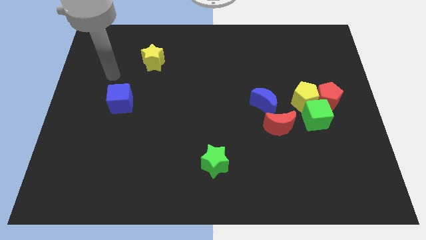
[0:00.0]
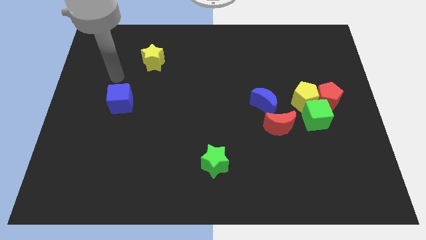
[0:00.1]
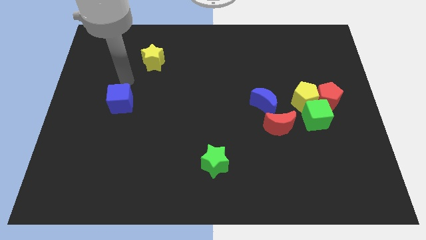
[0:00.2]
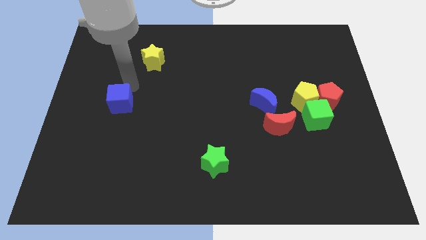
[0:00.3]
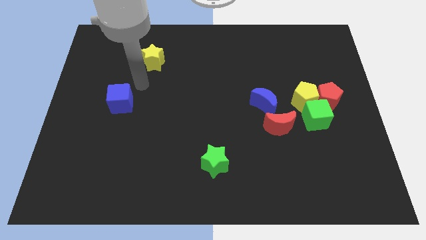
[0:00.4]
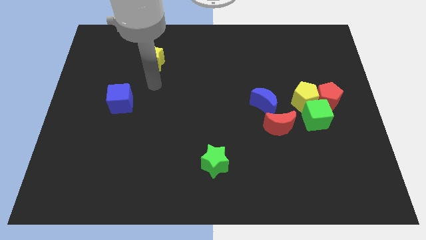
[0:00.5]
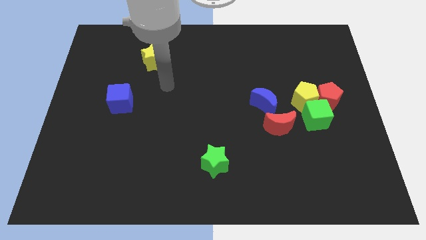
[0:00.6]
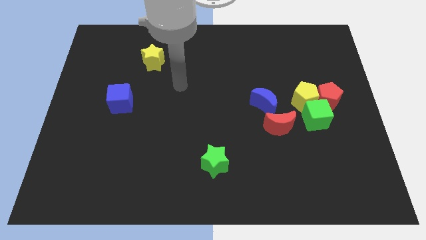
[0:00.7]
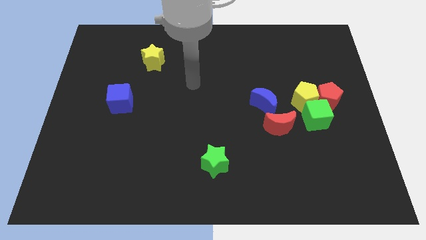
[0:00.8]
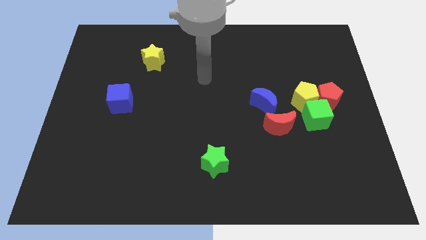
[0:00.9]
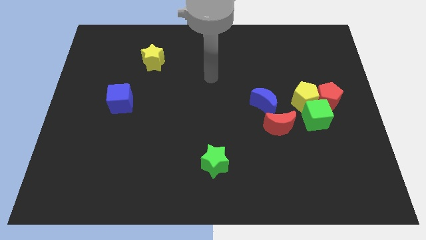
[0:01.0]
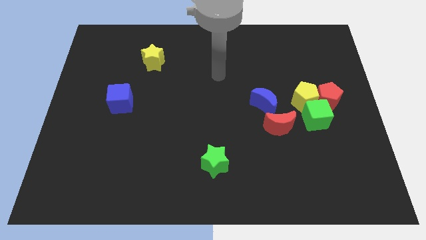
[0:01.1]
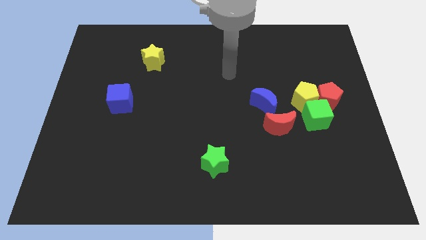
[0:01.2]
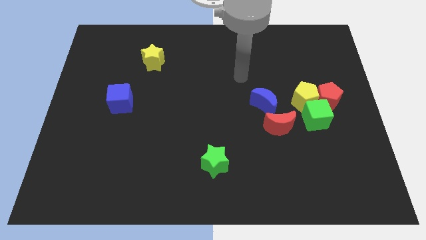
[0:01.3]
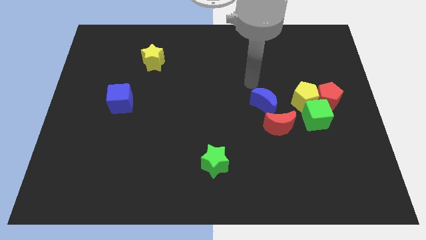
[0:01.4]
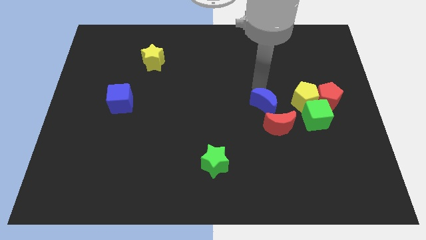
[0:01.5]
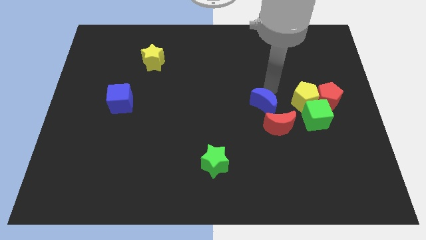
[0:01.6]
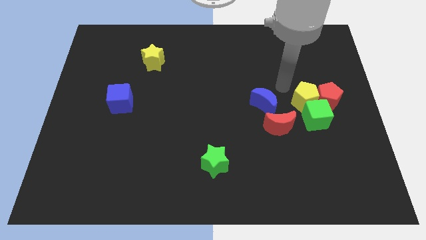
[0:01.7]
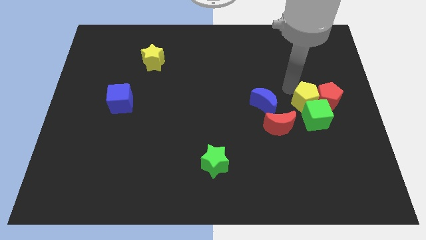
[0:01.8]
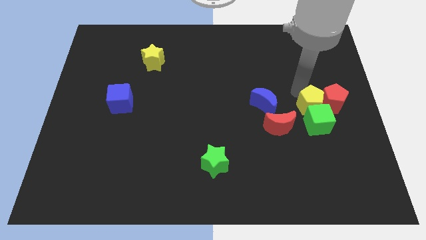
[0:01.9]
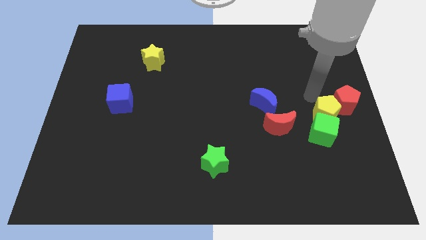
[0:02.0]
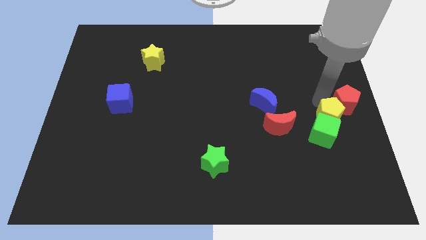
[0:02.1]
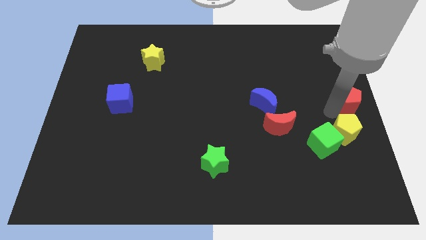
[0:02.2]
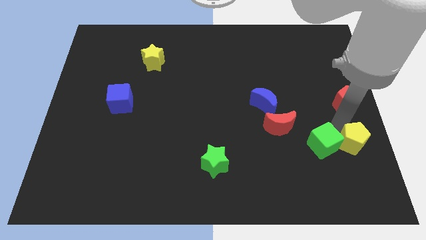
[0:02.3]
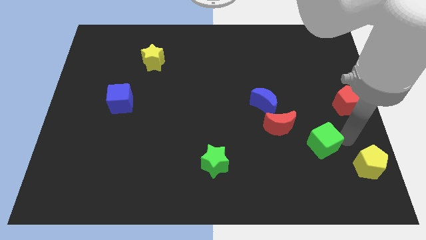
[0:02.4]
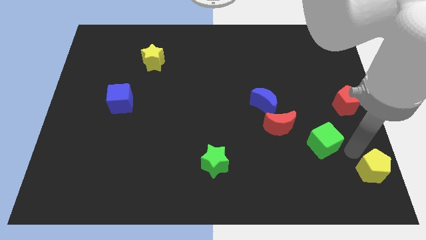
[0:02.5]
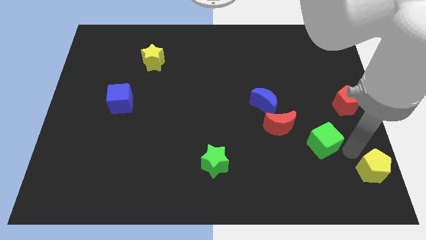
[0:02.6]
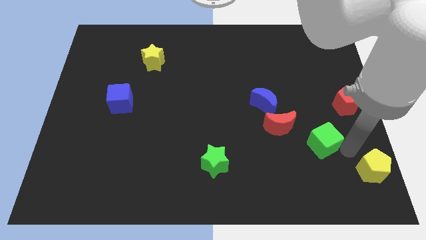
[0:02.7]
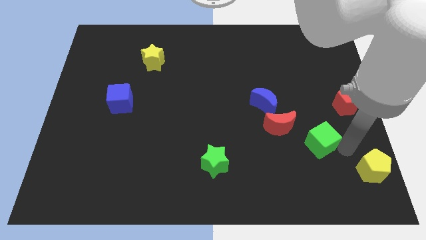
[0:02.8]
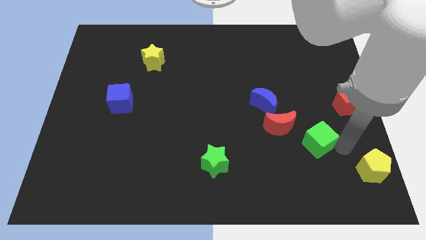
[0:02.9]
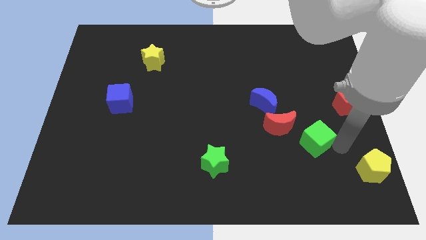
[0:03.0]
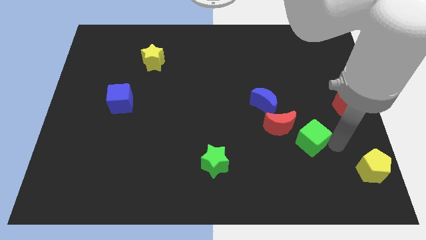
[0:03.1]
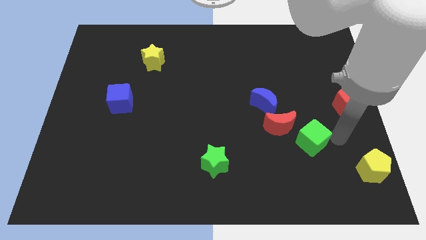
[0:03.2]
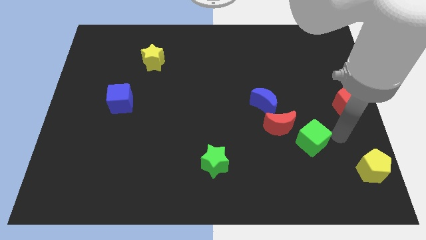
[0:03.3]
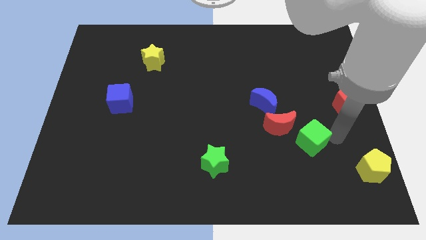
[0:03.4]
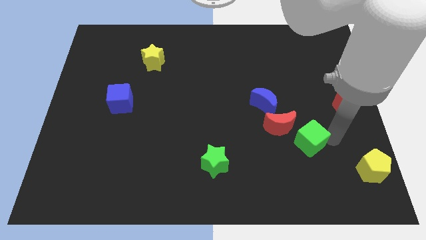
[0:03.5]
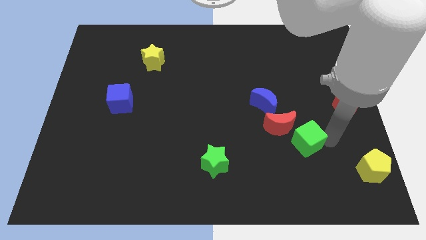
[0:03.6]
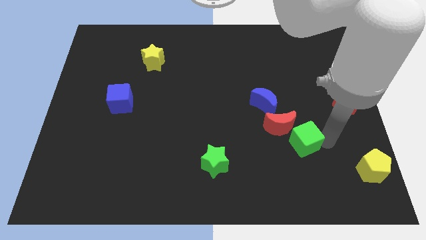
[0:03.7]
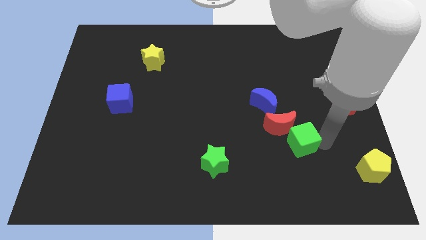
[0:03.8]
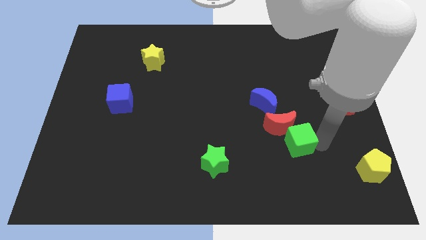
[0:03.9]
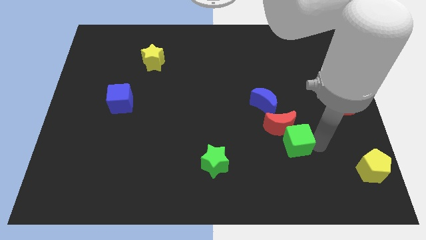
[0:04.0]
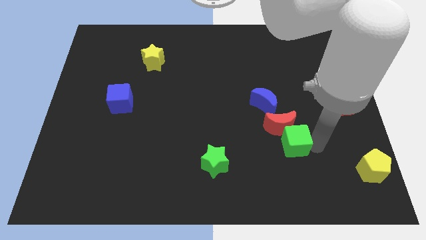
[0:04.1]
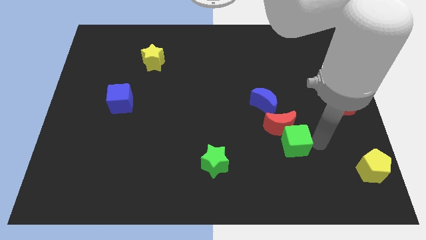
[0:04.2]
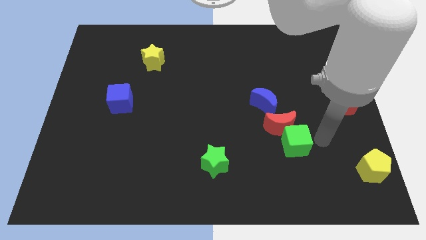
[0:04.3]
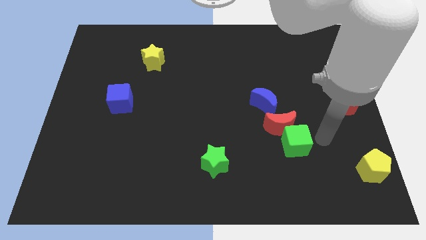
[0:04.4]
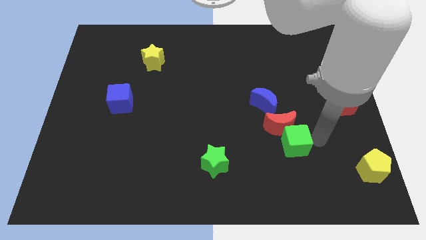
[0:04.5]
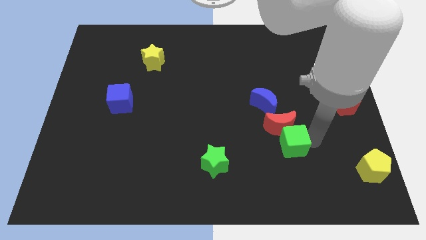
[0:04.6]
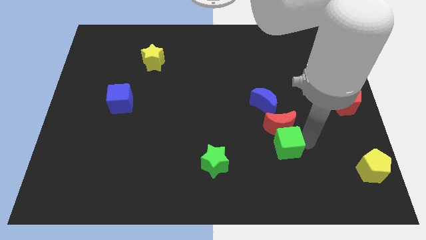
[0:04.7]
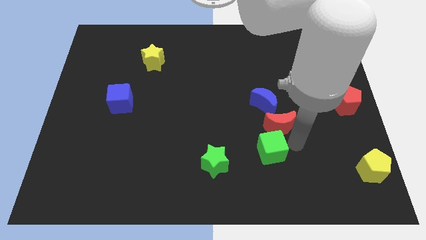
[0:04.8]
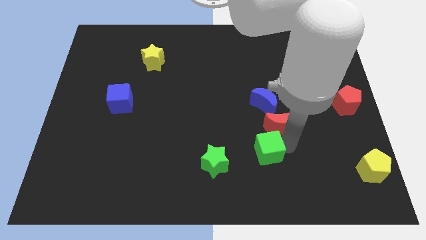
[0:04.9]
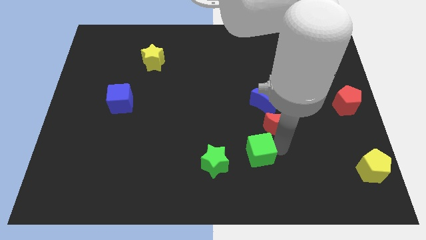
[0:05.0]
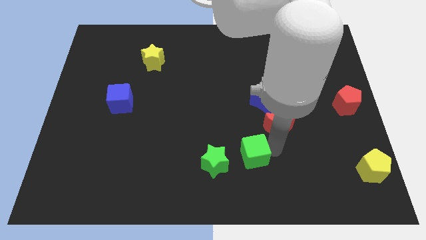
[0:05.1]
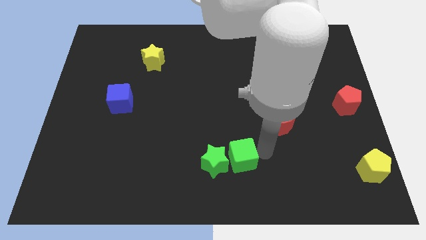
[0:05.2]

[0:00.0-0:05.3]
put the green cube towards the green star

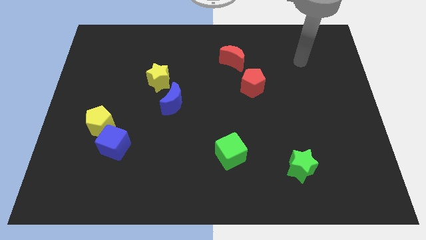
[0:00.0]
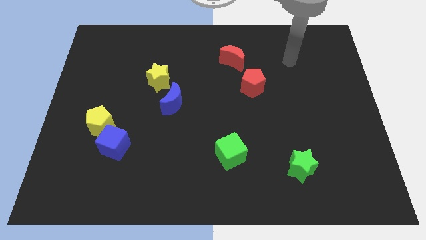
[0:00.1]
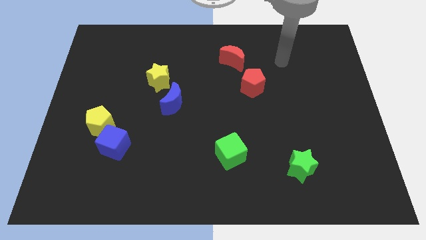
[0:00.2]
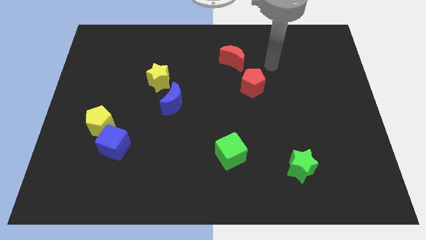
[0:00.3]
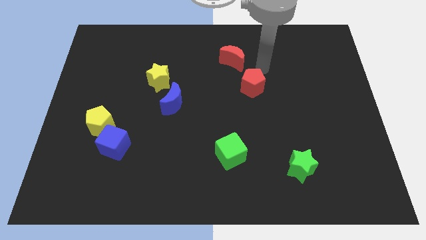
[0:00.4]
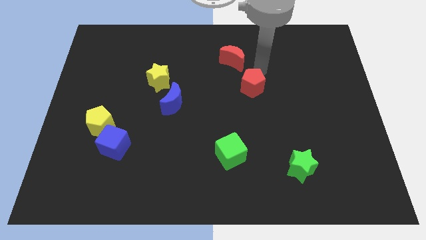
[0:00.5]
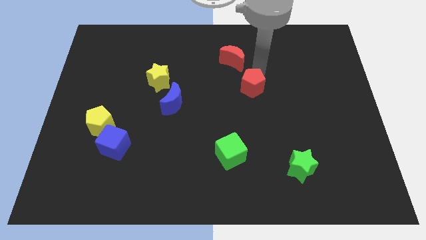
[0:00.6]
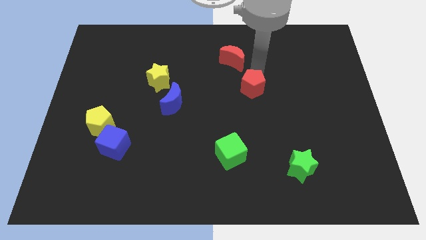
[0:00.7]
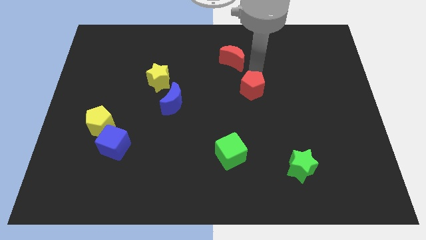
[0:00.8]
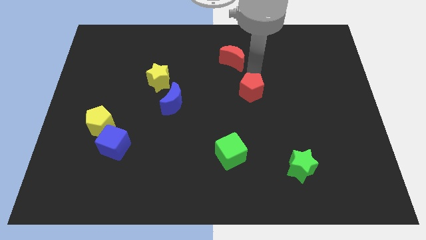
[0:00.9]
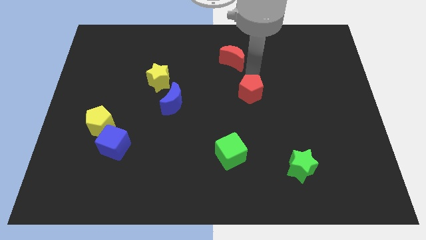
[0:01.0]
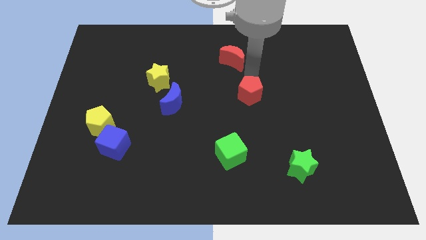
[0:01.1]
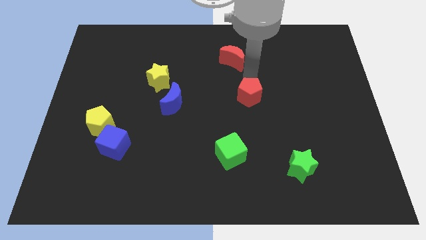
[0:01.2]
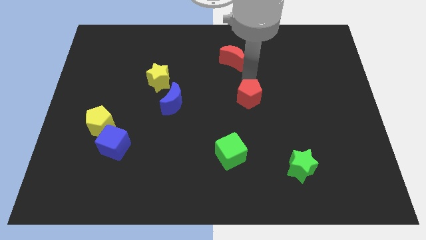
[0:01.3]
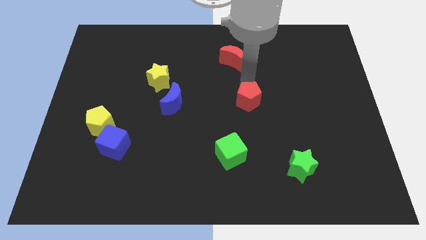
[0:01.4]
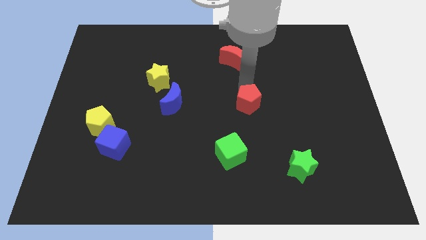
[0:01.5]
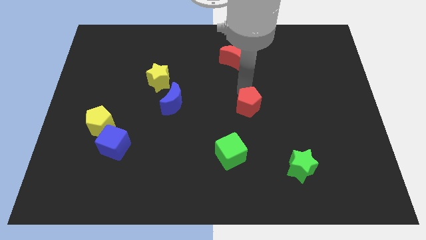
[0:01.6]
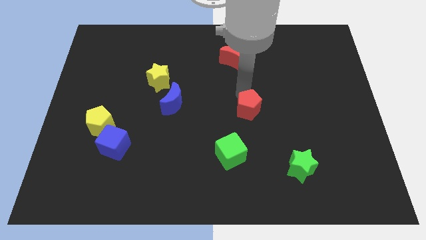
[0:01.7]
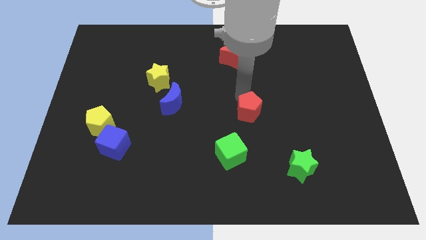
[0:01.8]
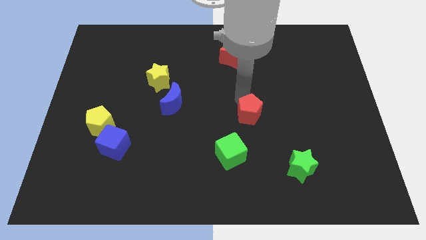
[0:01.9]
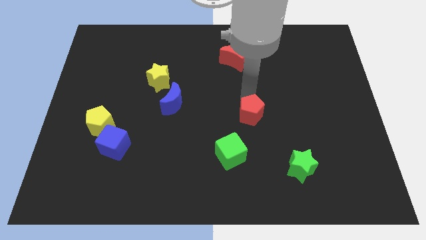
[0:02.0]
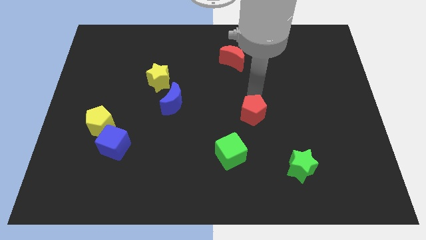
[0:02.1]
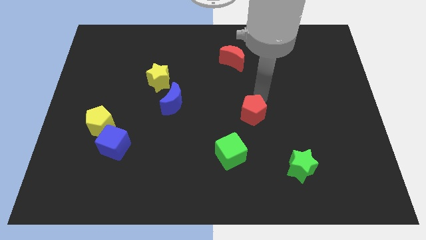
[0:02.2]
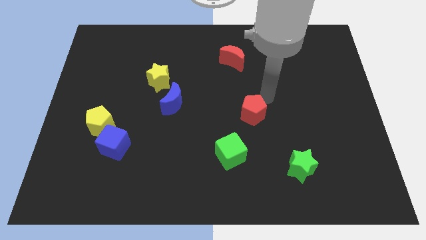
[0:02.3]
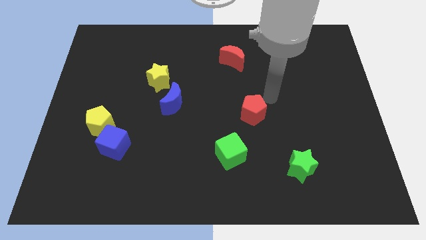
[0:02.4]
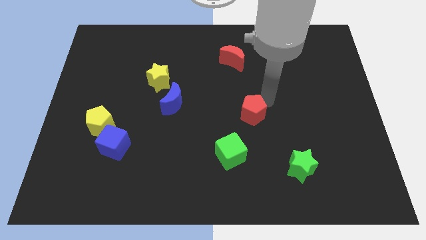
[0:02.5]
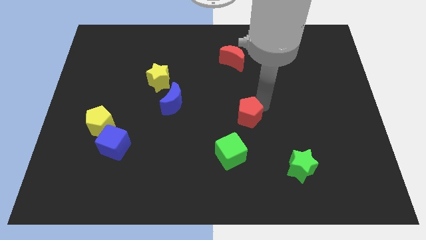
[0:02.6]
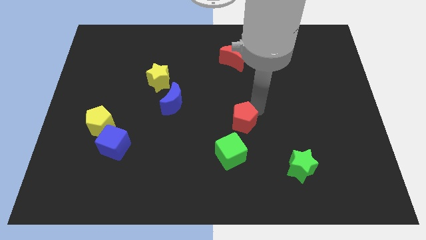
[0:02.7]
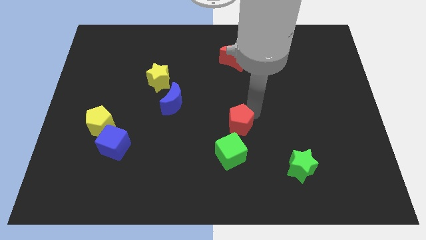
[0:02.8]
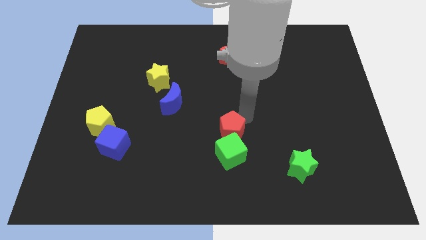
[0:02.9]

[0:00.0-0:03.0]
slide the red pentagon to the green cube
